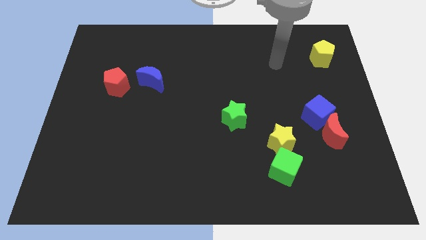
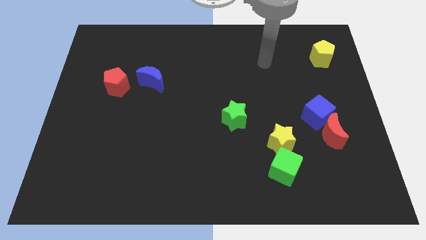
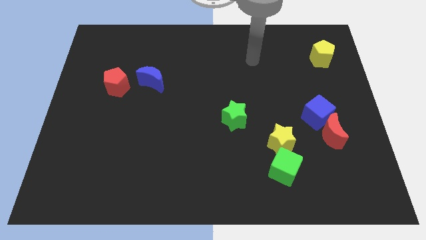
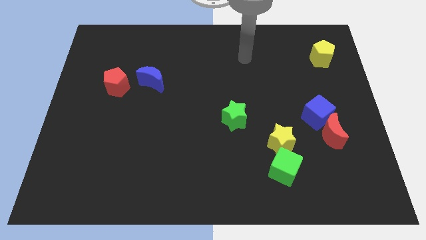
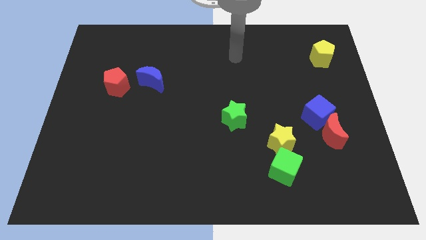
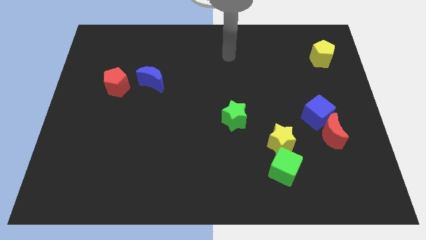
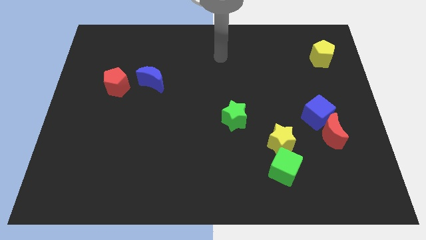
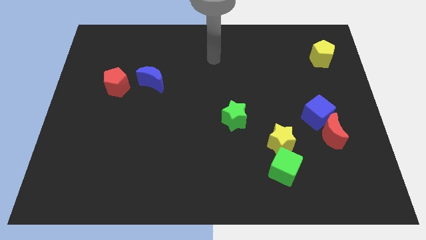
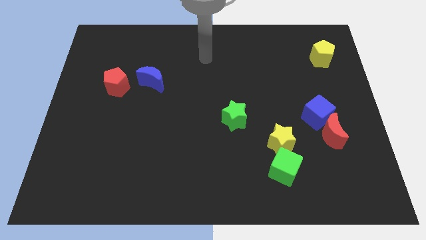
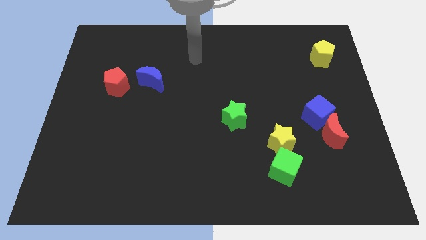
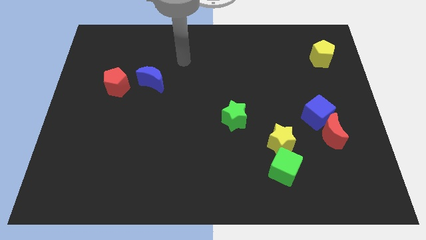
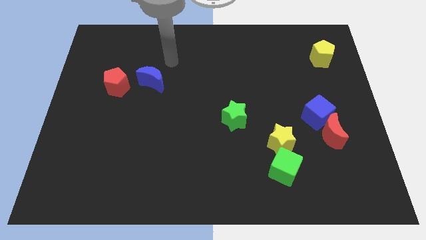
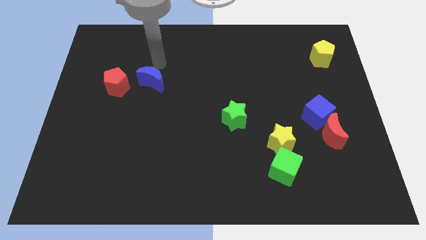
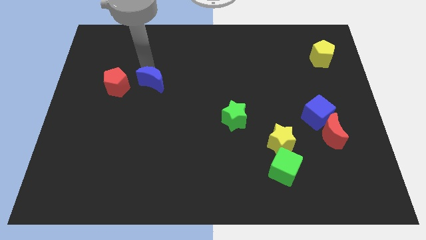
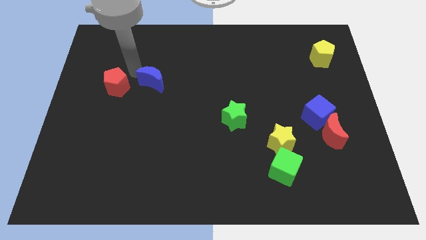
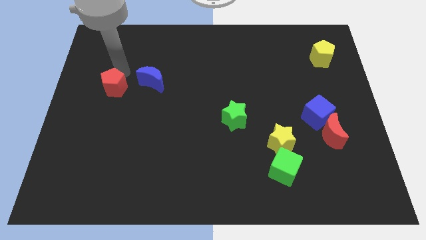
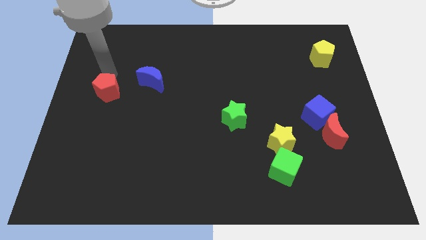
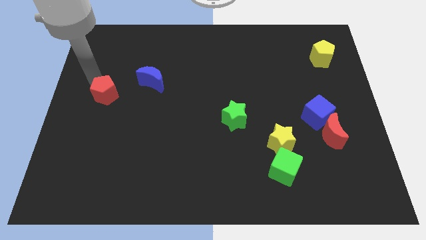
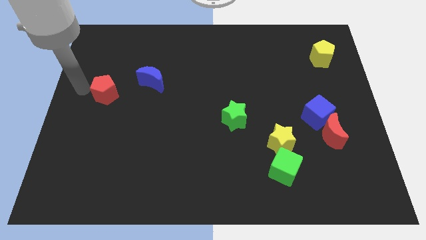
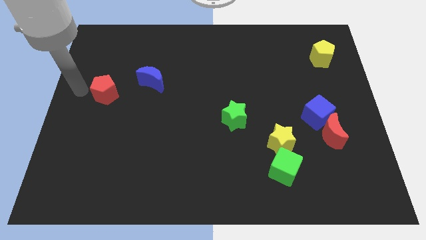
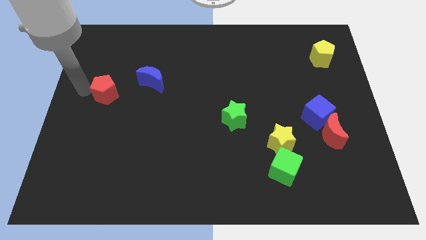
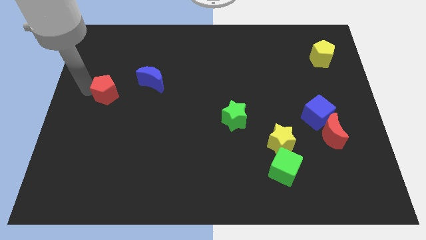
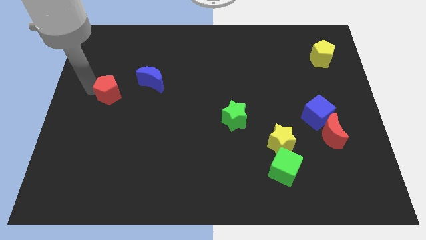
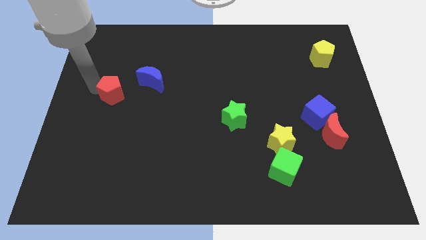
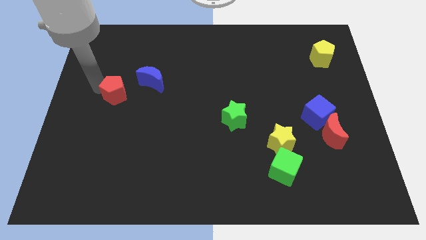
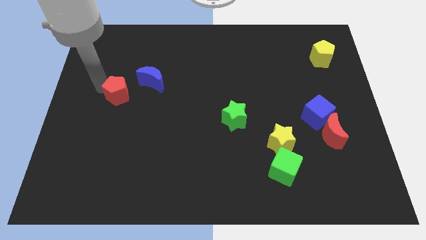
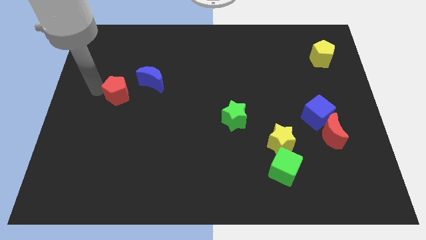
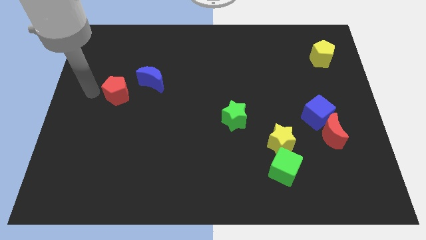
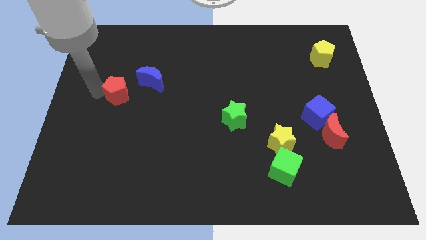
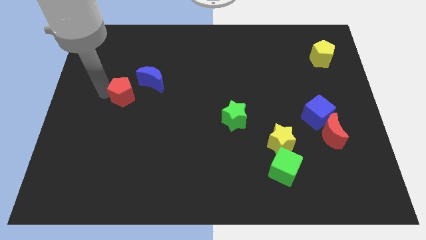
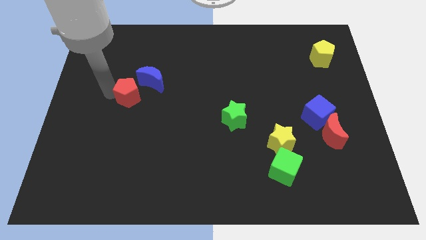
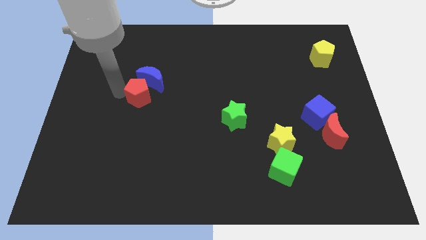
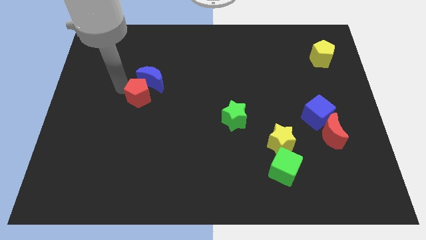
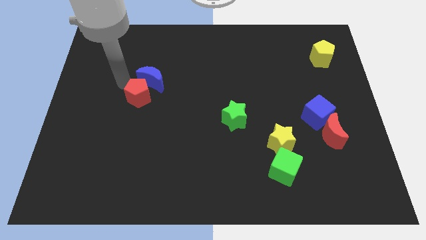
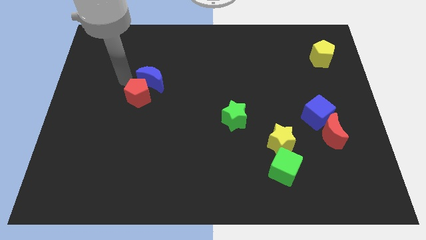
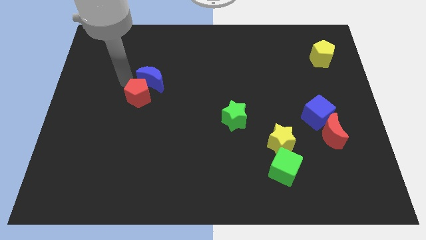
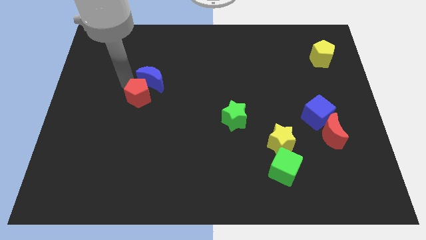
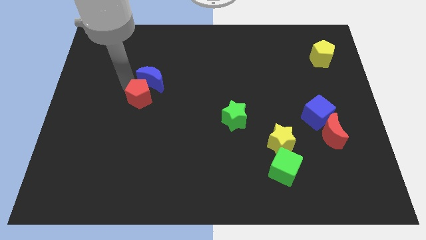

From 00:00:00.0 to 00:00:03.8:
slide the red pentagon diagonally down and to the right slightly

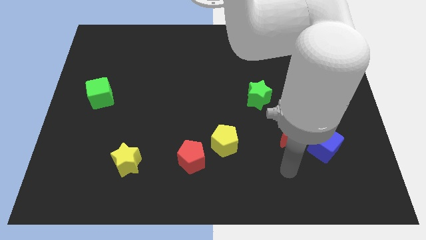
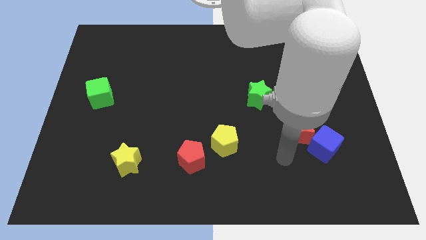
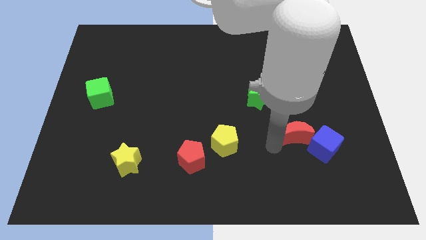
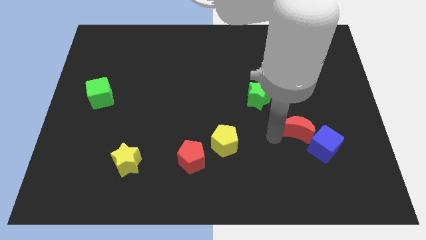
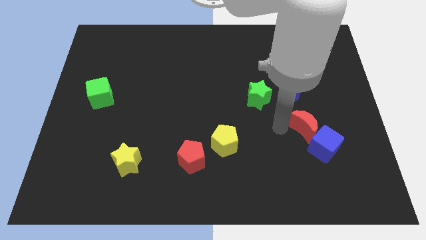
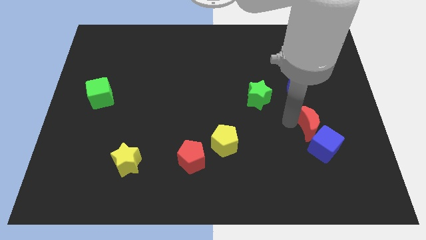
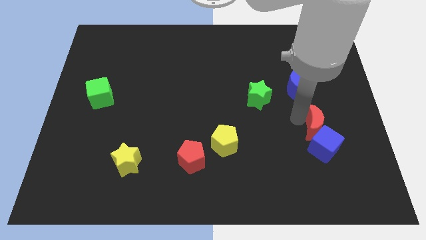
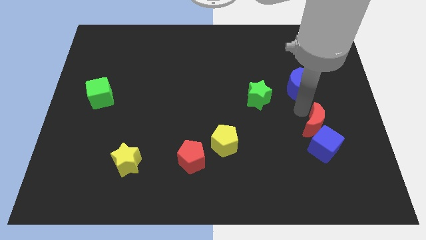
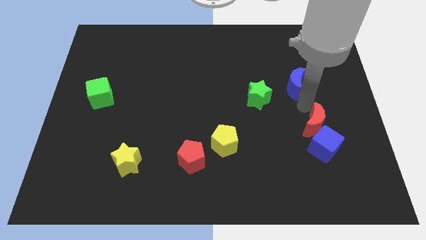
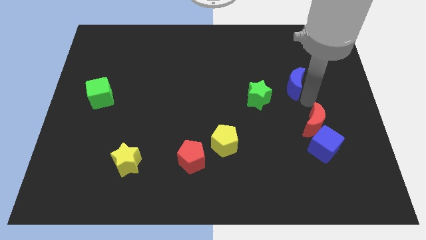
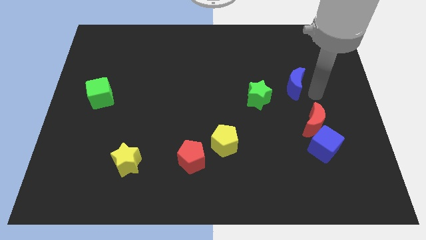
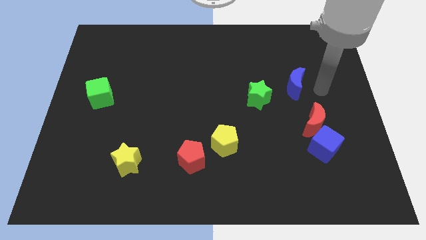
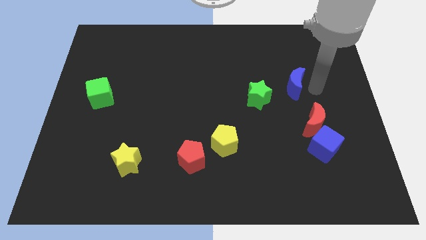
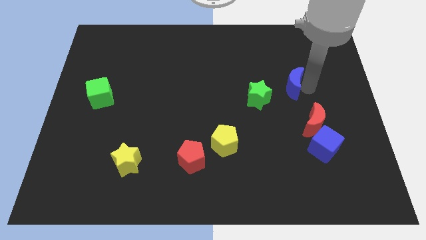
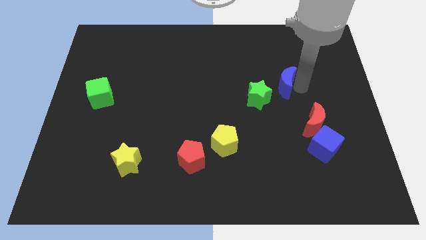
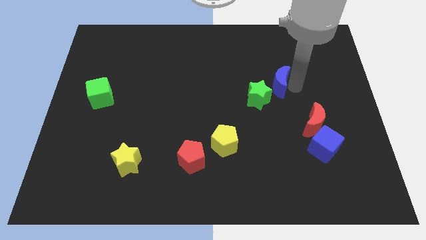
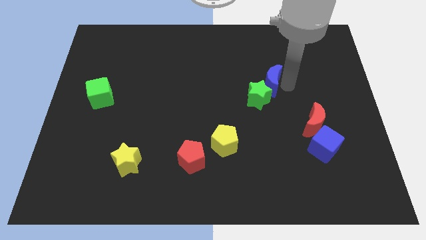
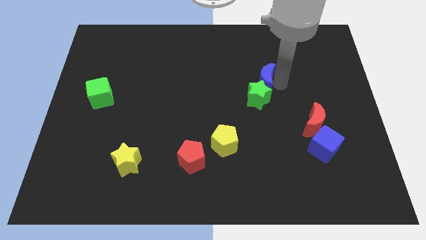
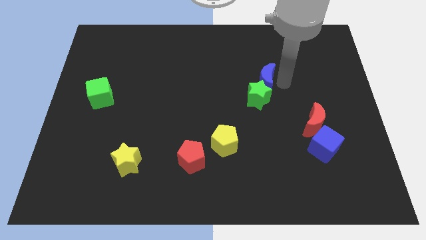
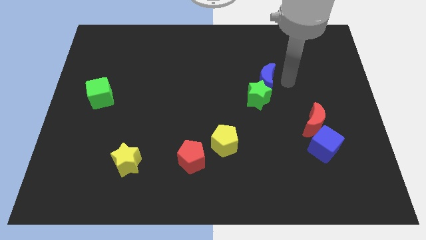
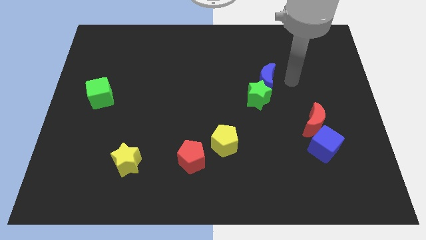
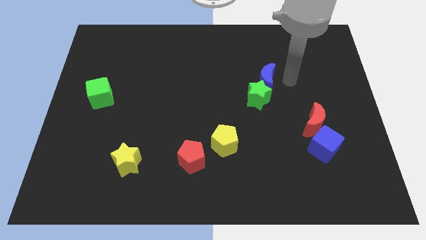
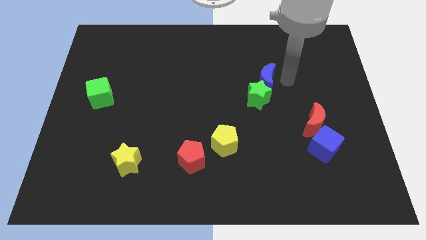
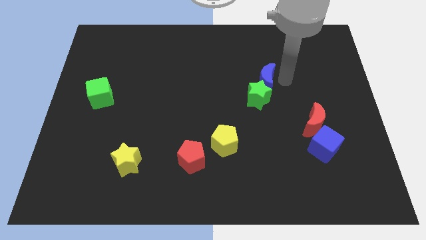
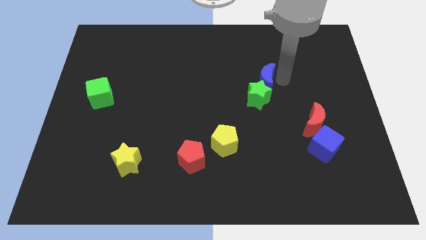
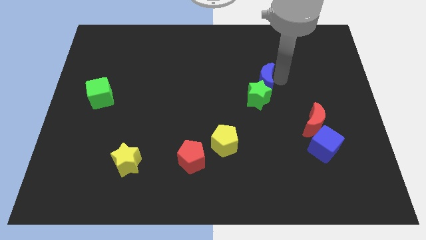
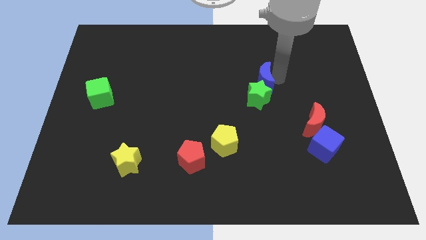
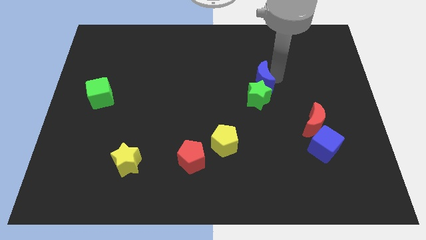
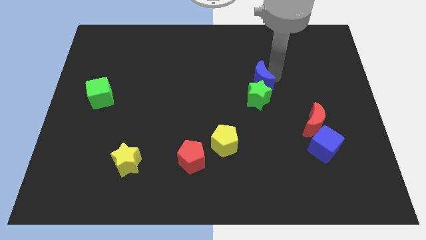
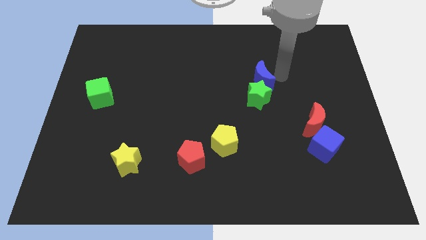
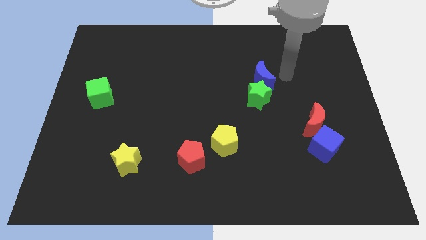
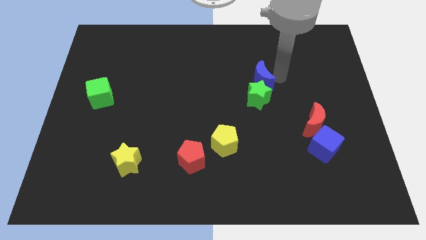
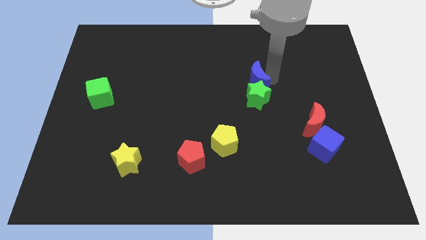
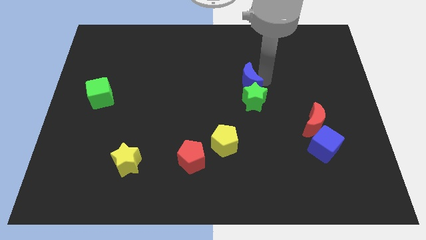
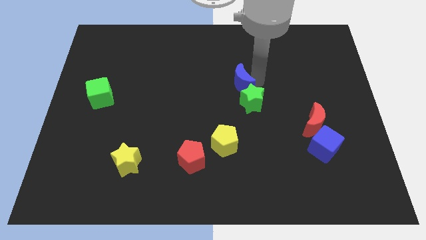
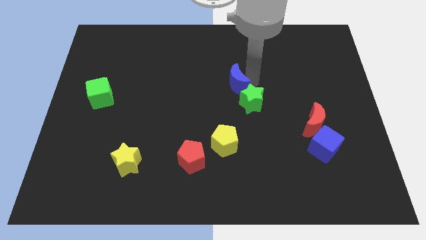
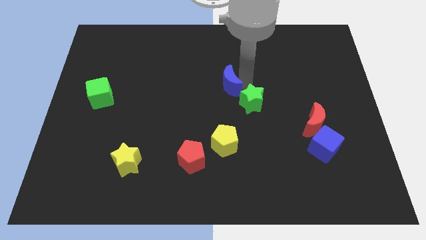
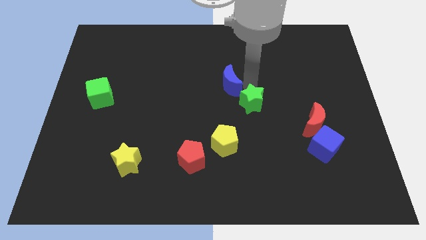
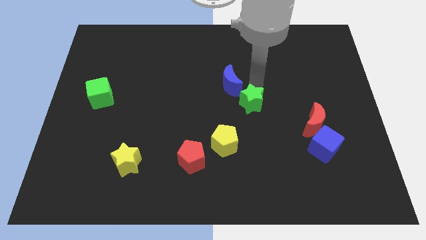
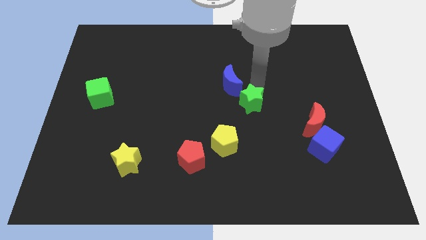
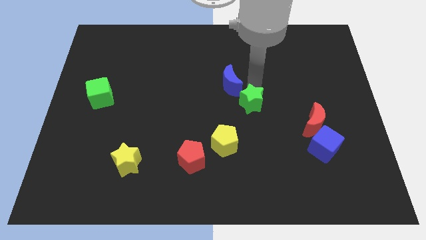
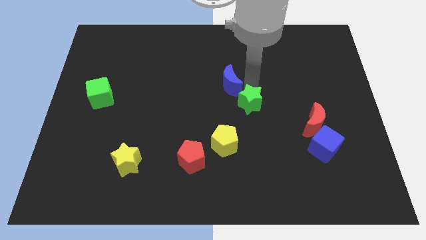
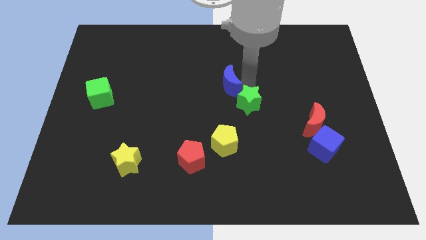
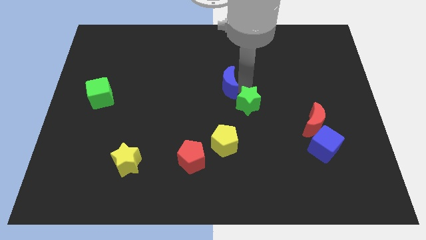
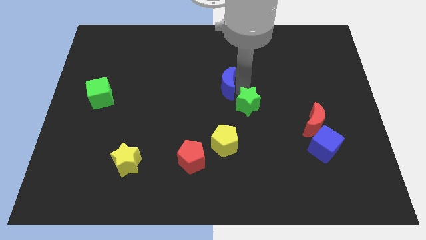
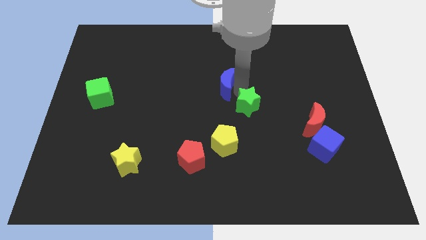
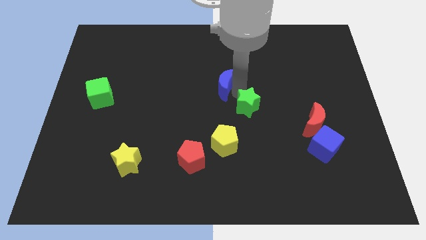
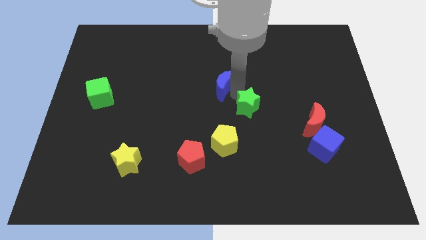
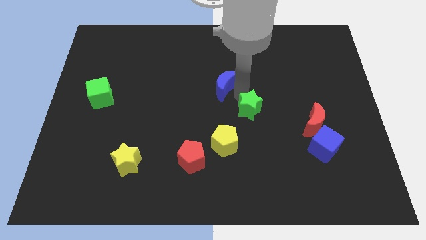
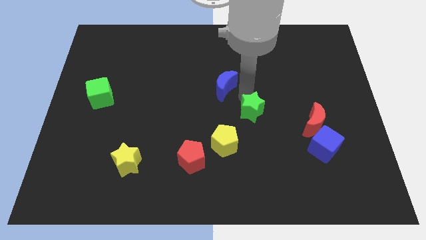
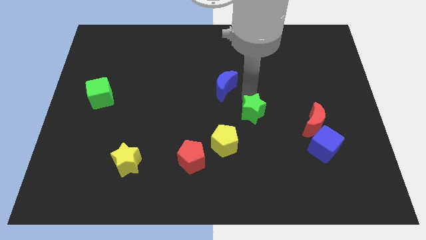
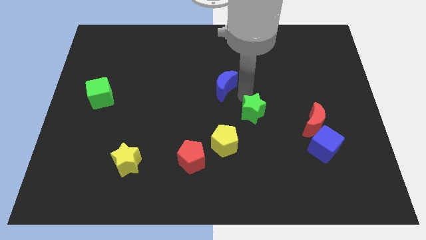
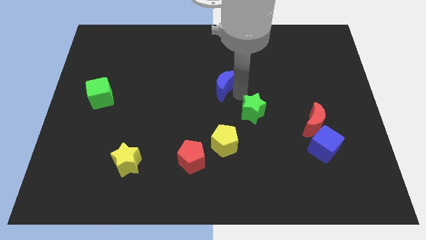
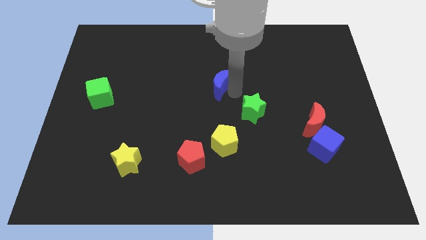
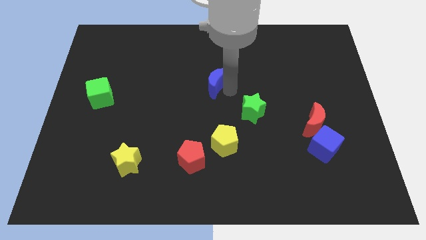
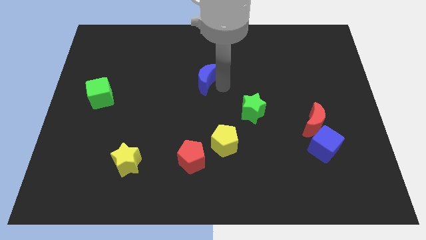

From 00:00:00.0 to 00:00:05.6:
slide the blue moon to the left
